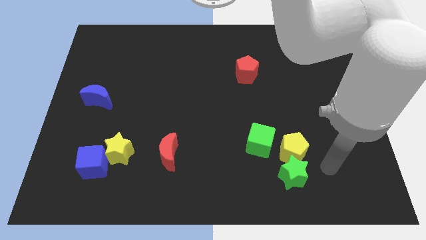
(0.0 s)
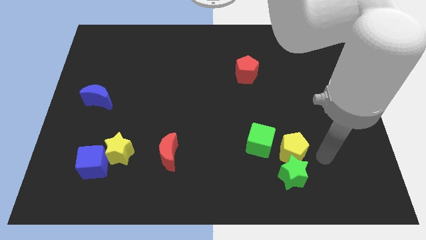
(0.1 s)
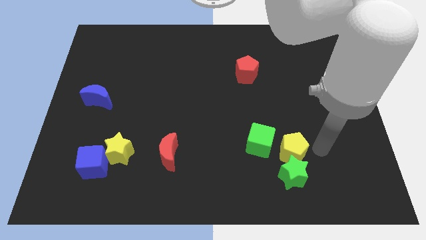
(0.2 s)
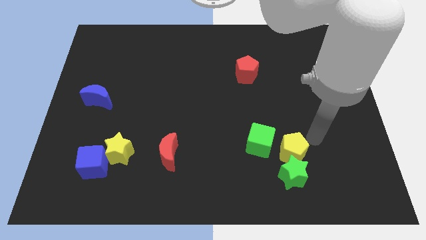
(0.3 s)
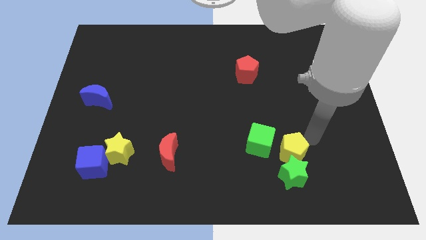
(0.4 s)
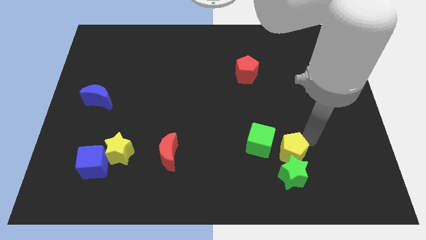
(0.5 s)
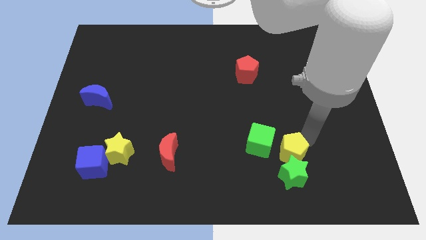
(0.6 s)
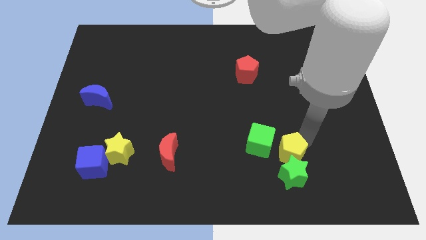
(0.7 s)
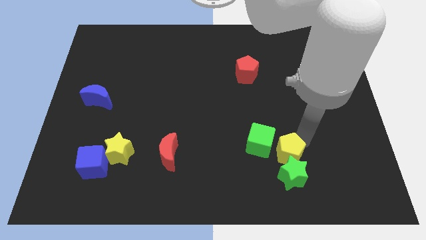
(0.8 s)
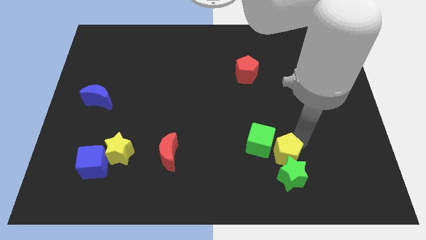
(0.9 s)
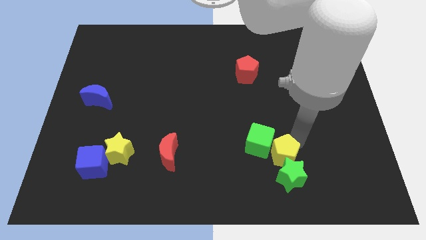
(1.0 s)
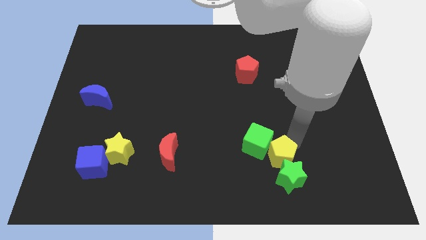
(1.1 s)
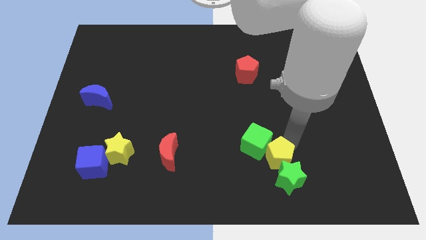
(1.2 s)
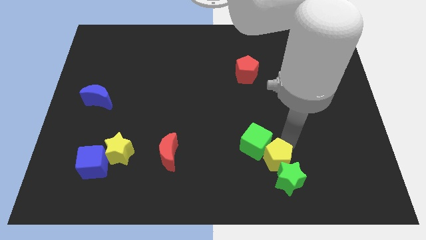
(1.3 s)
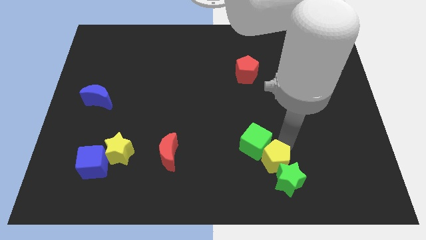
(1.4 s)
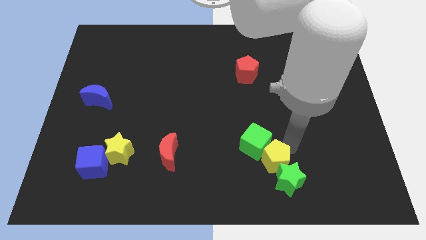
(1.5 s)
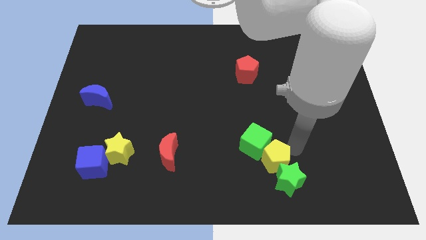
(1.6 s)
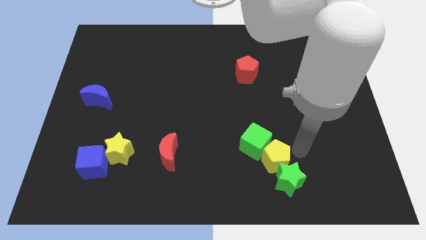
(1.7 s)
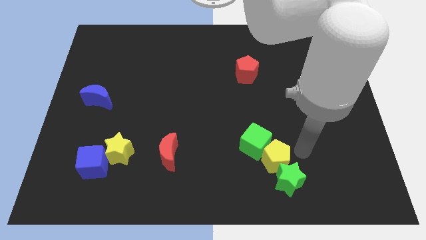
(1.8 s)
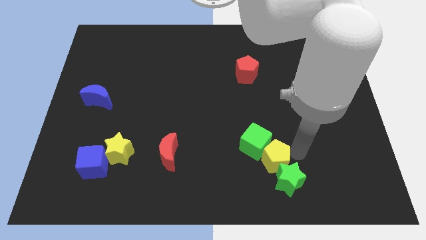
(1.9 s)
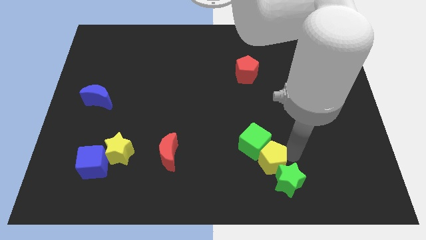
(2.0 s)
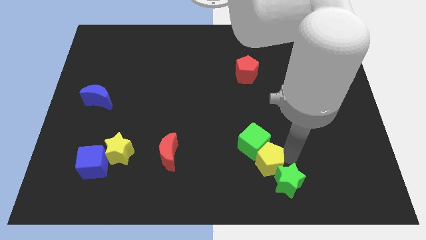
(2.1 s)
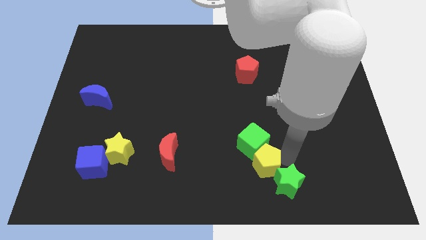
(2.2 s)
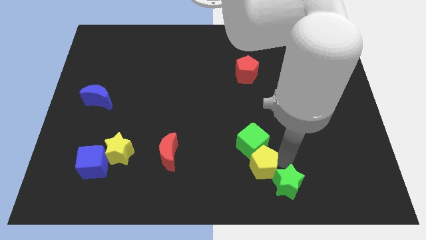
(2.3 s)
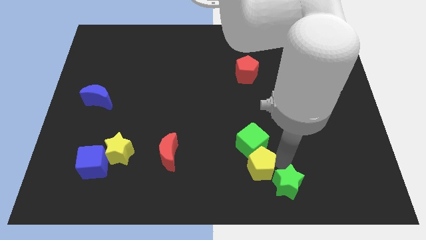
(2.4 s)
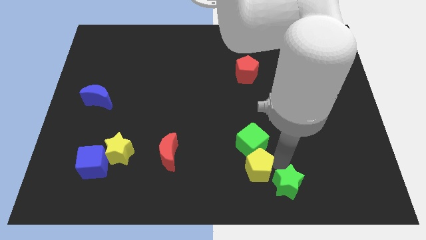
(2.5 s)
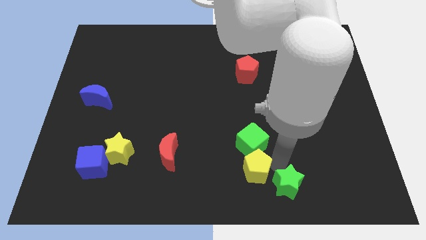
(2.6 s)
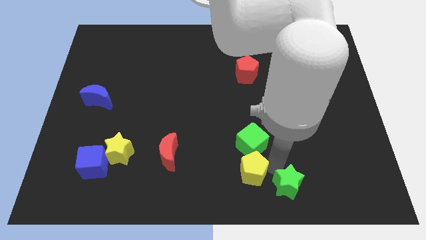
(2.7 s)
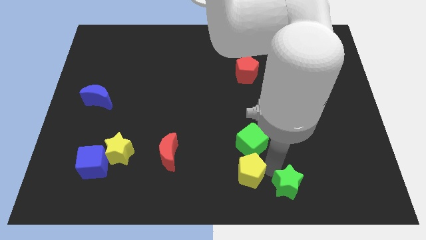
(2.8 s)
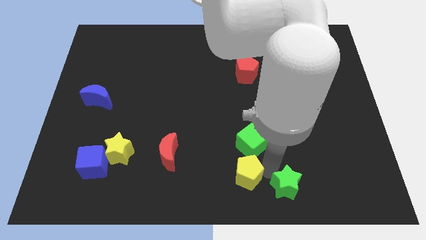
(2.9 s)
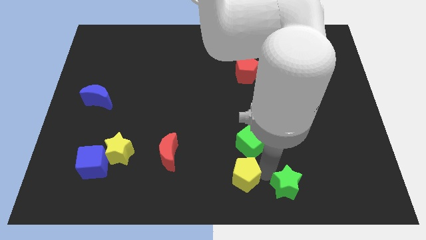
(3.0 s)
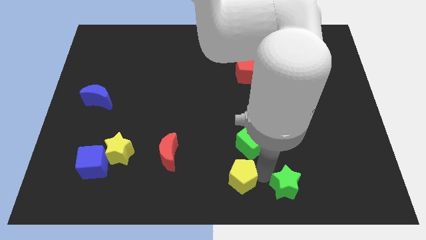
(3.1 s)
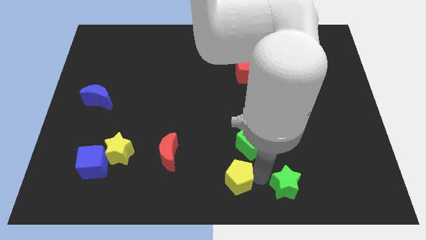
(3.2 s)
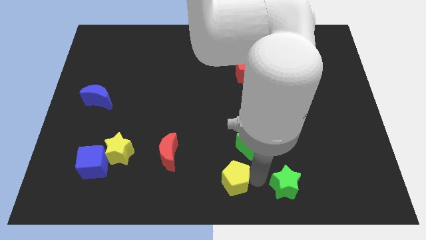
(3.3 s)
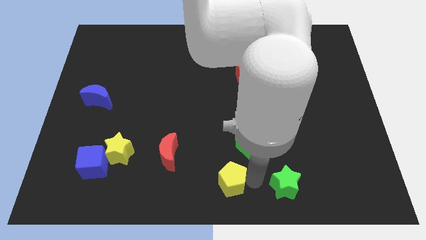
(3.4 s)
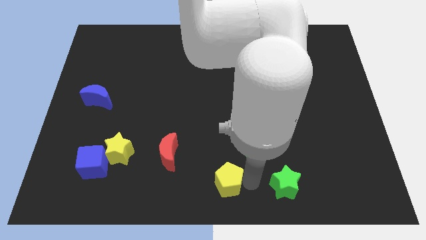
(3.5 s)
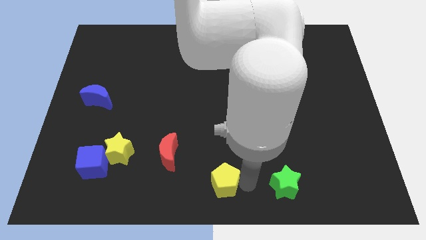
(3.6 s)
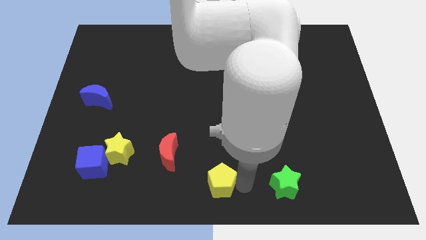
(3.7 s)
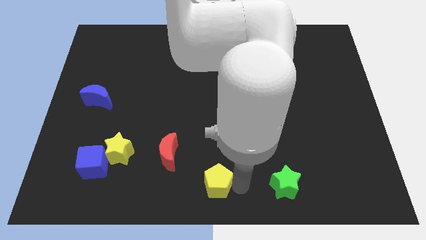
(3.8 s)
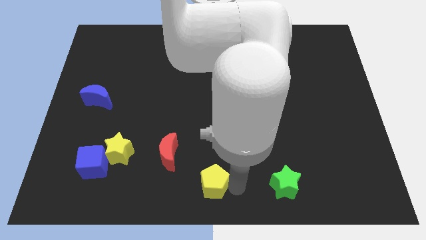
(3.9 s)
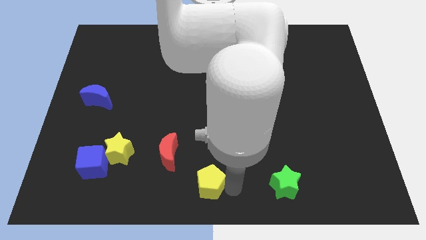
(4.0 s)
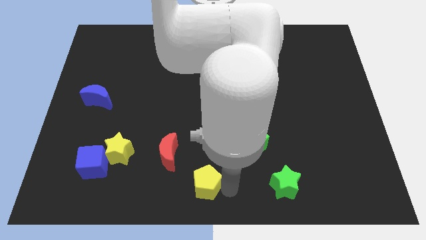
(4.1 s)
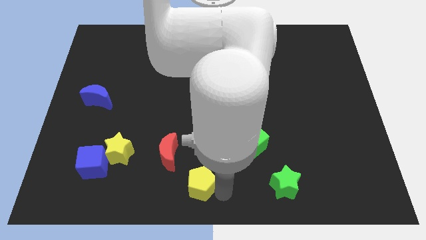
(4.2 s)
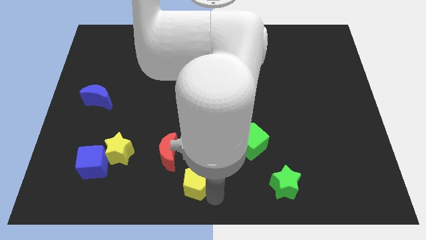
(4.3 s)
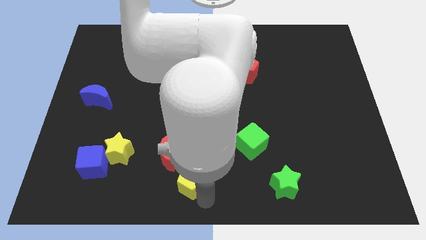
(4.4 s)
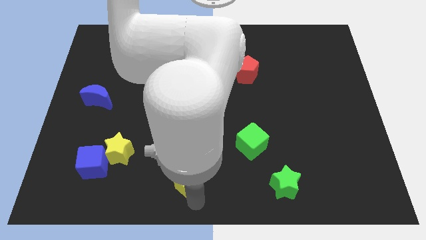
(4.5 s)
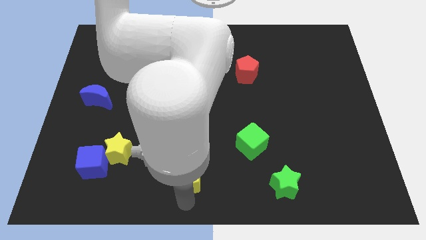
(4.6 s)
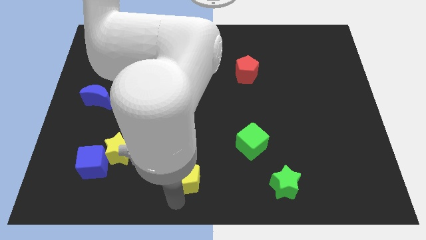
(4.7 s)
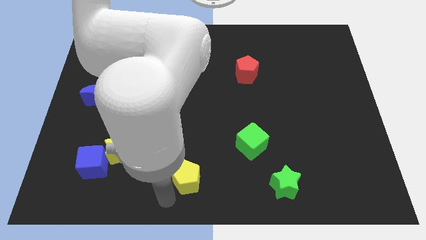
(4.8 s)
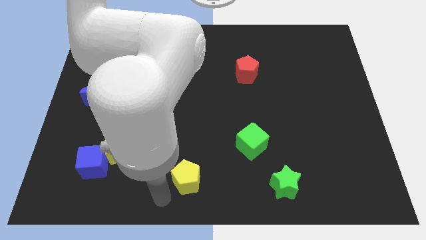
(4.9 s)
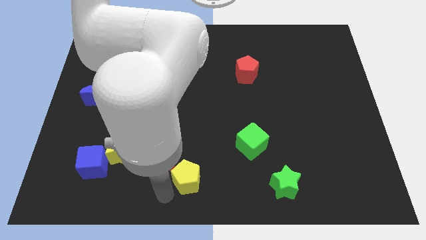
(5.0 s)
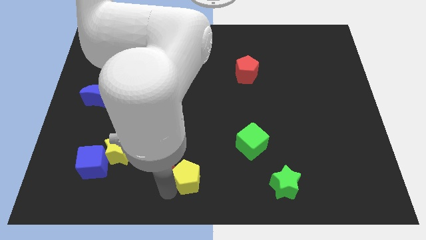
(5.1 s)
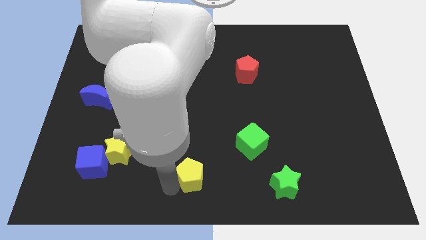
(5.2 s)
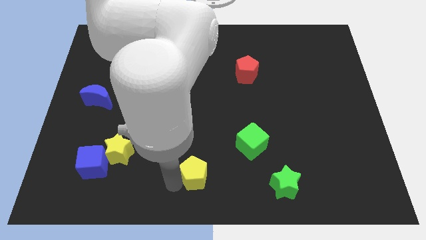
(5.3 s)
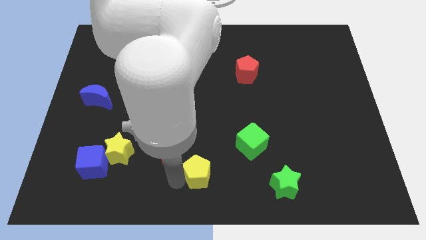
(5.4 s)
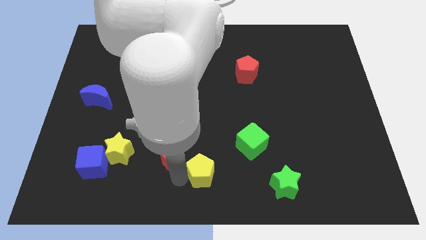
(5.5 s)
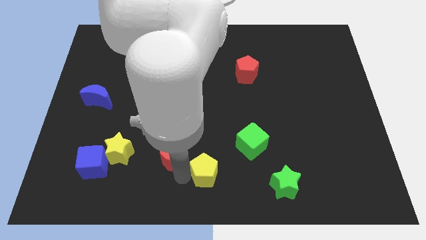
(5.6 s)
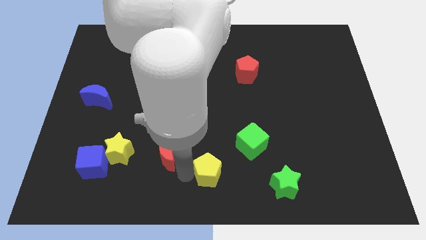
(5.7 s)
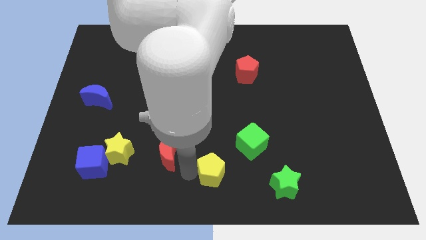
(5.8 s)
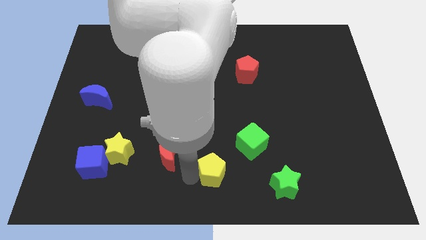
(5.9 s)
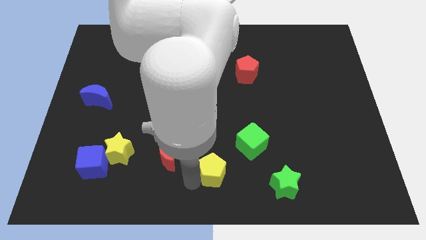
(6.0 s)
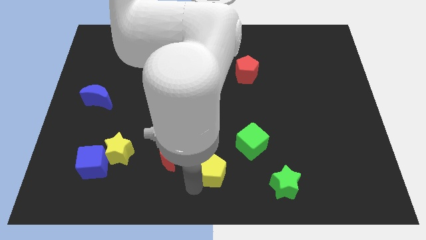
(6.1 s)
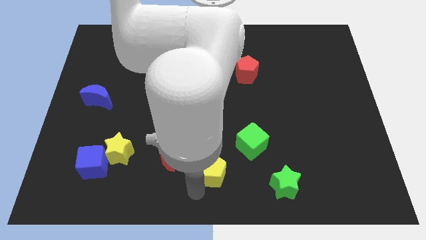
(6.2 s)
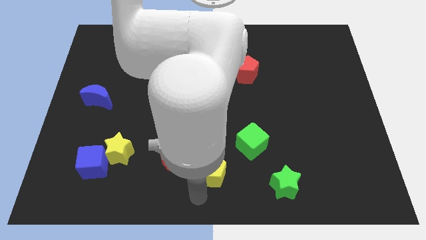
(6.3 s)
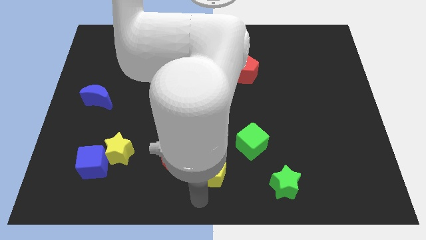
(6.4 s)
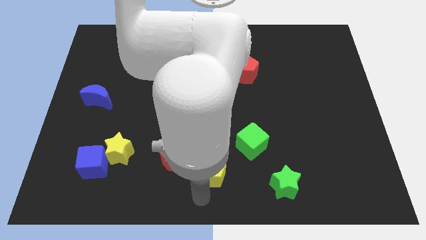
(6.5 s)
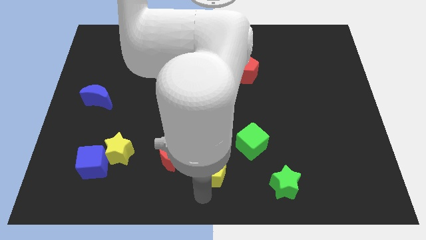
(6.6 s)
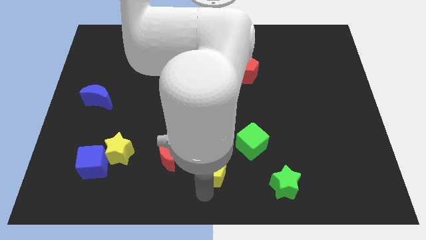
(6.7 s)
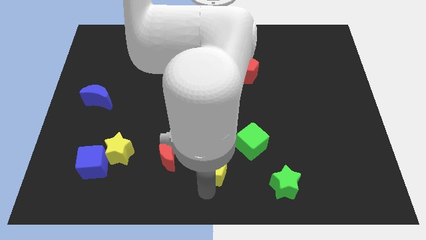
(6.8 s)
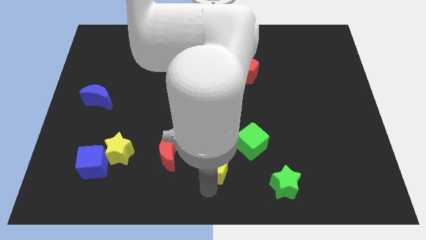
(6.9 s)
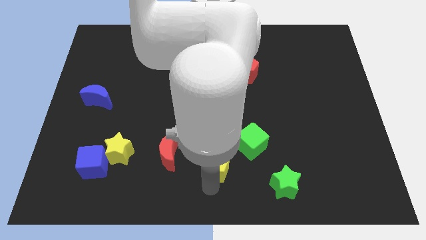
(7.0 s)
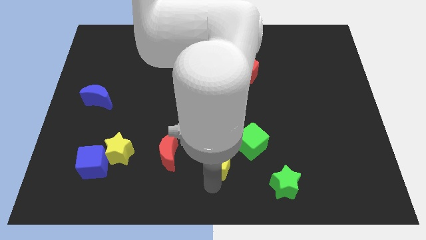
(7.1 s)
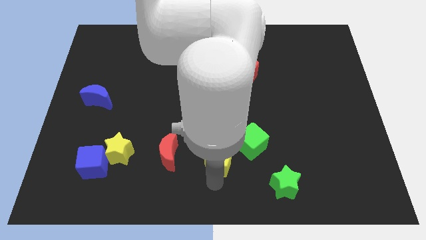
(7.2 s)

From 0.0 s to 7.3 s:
slide the yellow pentagon to the left of the green cube

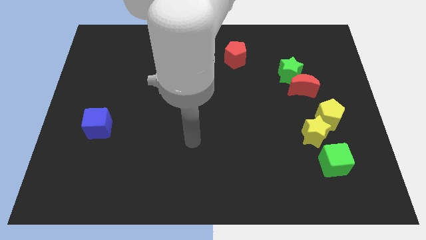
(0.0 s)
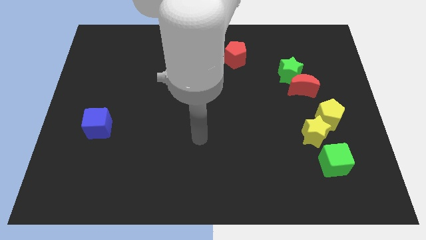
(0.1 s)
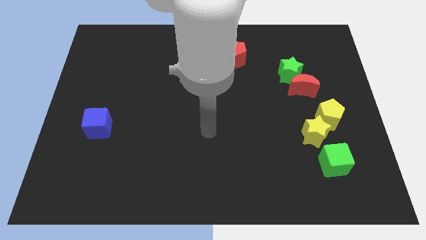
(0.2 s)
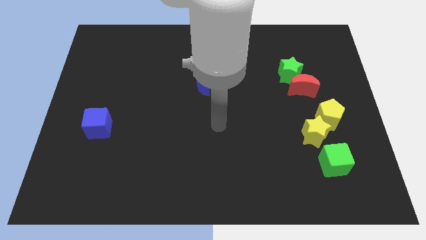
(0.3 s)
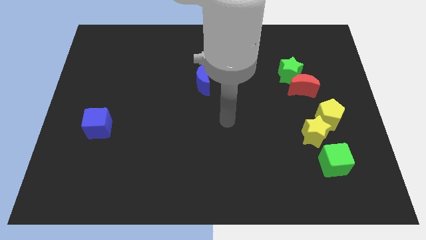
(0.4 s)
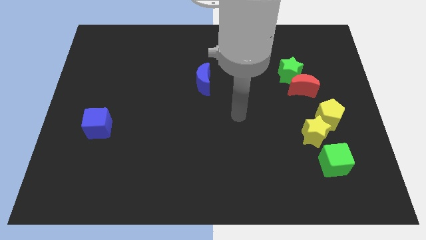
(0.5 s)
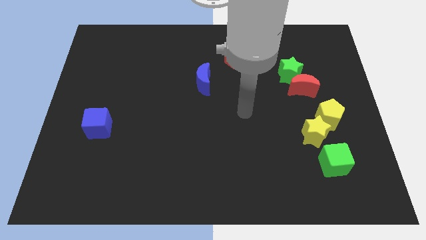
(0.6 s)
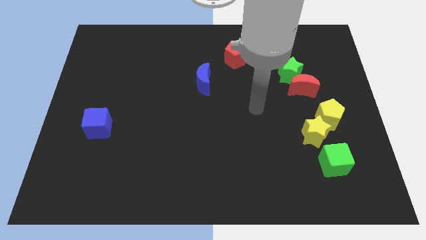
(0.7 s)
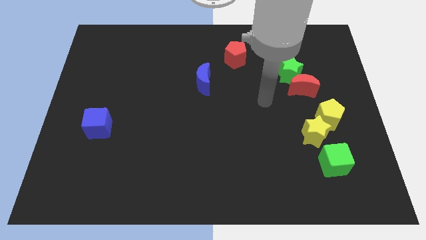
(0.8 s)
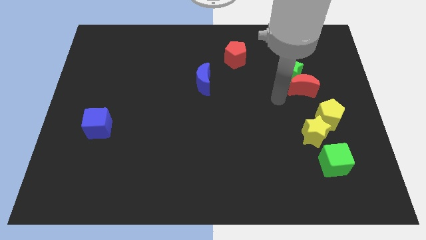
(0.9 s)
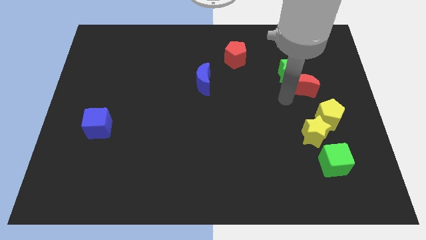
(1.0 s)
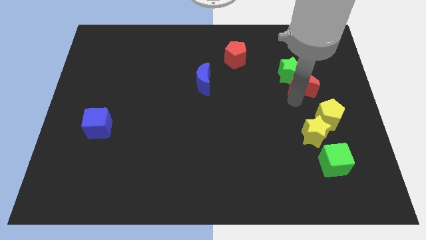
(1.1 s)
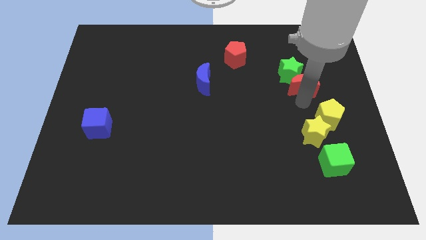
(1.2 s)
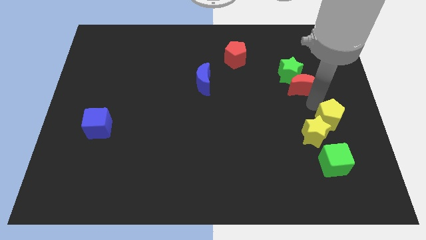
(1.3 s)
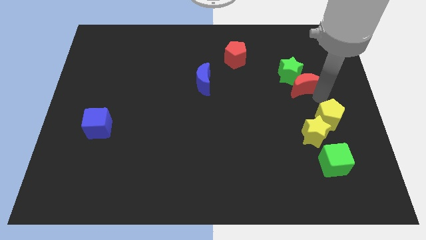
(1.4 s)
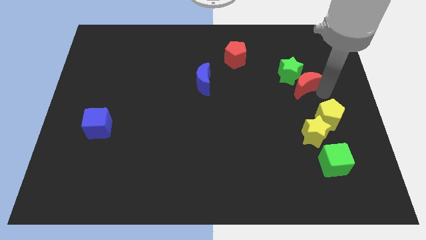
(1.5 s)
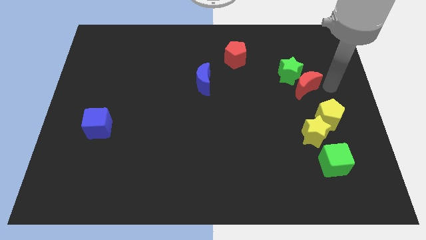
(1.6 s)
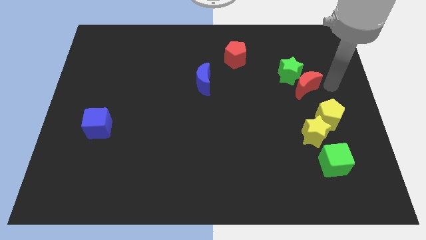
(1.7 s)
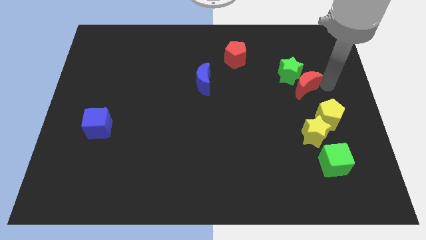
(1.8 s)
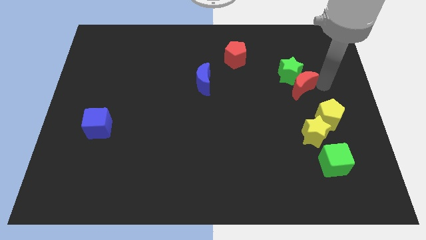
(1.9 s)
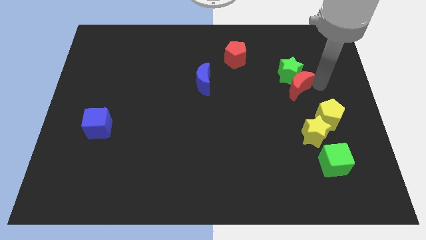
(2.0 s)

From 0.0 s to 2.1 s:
put the red moon to the bottom left side of the green star
